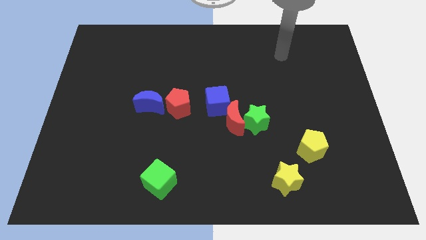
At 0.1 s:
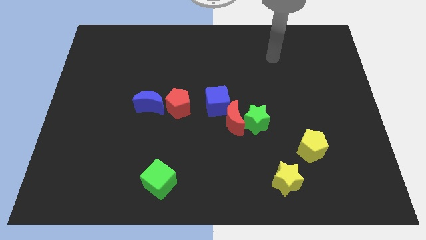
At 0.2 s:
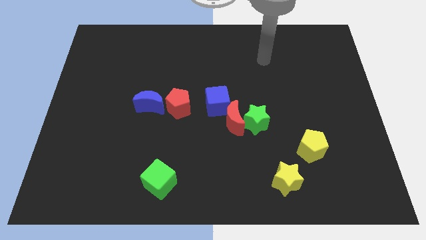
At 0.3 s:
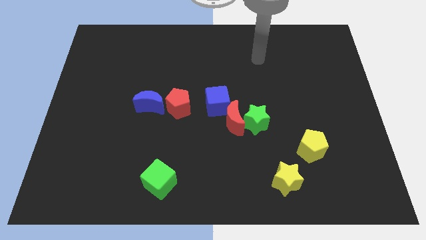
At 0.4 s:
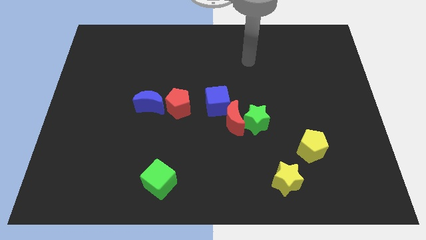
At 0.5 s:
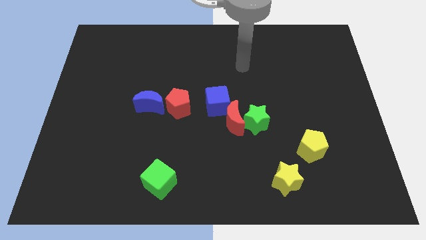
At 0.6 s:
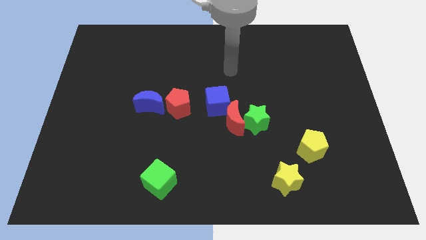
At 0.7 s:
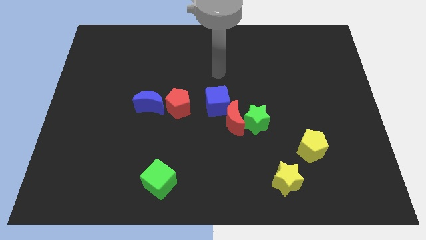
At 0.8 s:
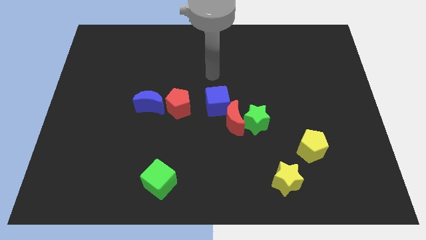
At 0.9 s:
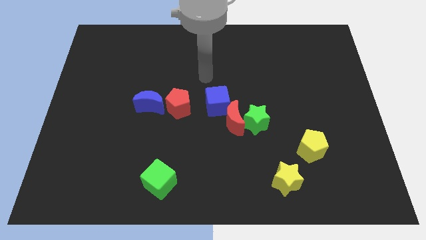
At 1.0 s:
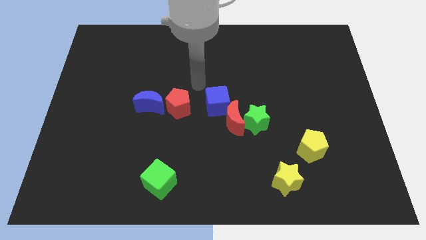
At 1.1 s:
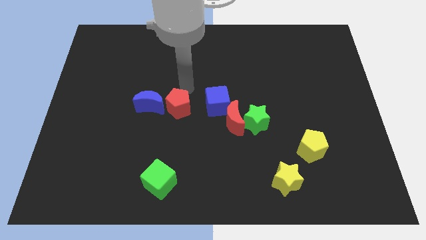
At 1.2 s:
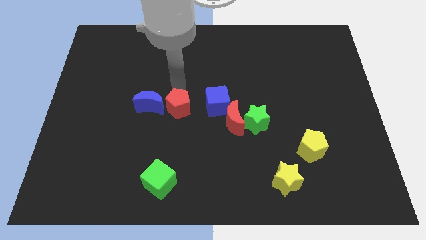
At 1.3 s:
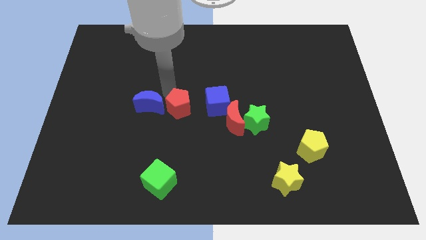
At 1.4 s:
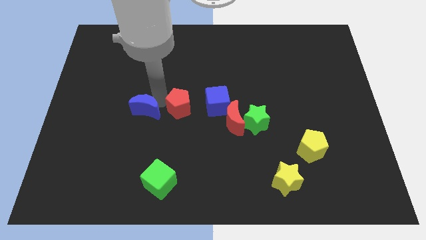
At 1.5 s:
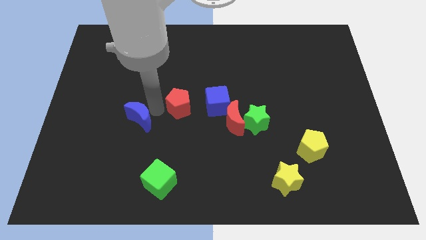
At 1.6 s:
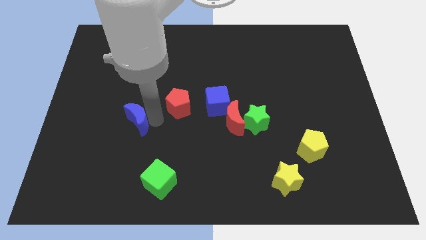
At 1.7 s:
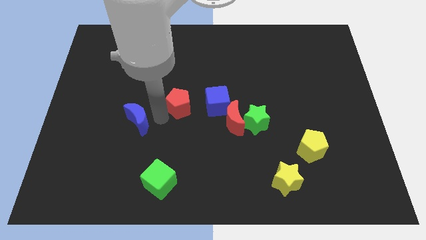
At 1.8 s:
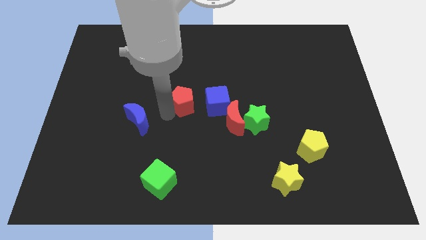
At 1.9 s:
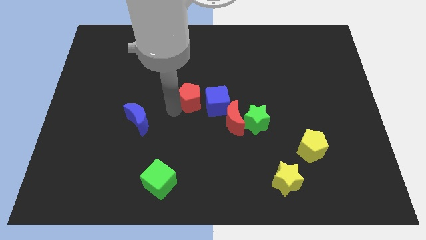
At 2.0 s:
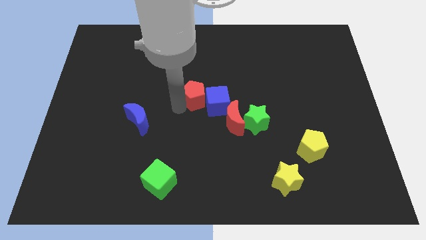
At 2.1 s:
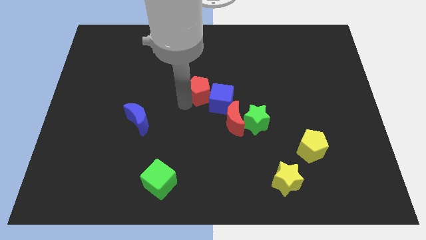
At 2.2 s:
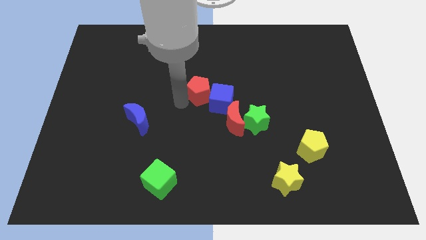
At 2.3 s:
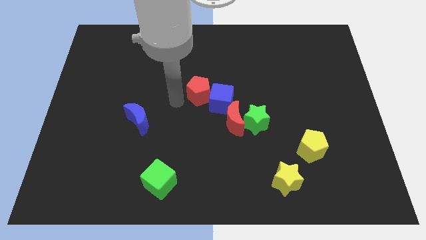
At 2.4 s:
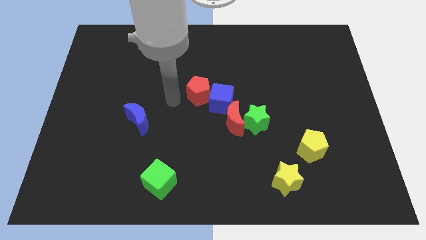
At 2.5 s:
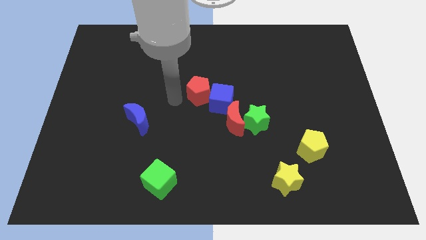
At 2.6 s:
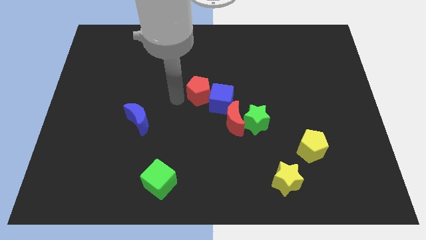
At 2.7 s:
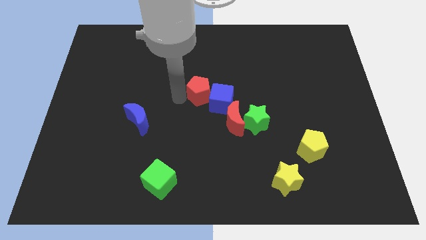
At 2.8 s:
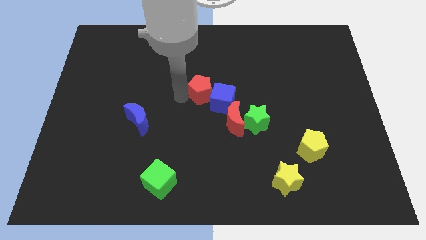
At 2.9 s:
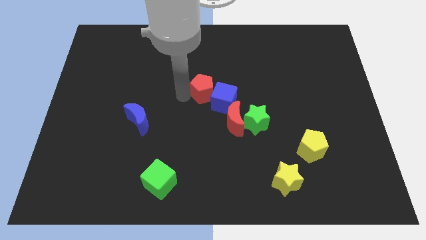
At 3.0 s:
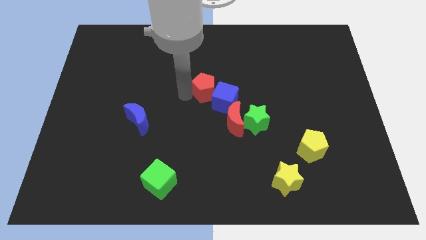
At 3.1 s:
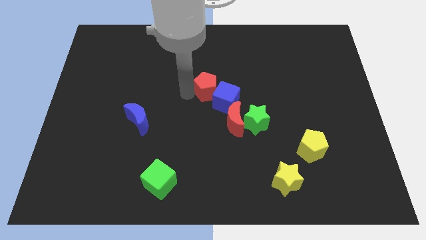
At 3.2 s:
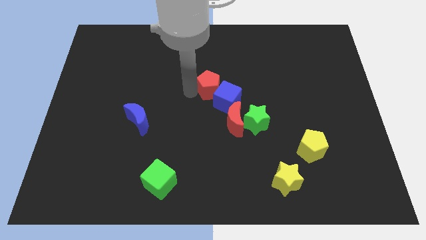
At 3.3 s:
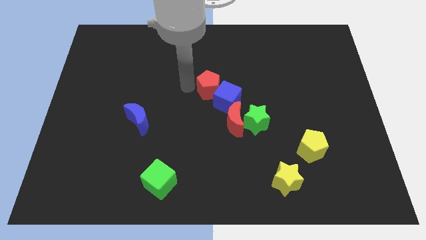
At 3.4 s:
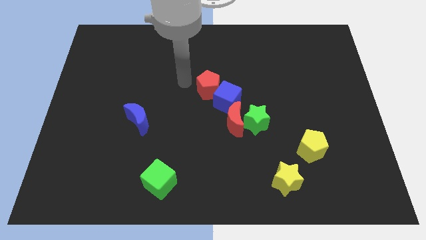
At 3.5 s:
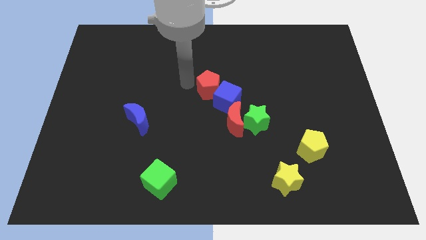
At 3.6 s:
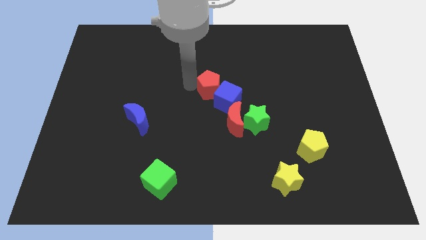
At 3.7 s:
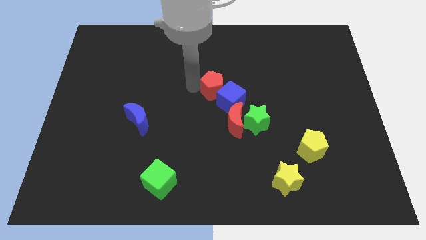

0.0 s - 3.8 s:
push the red pentagon right slightly

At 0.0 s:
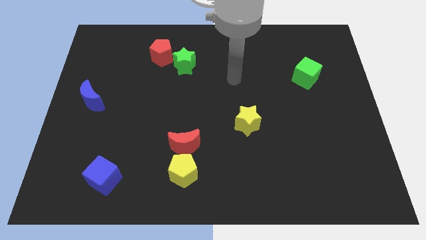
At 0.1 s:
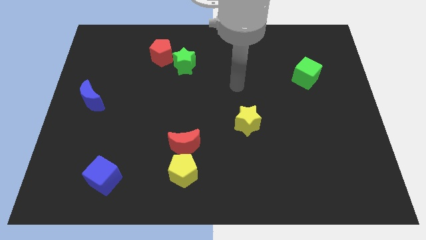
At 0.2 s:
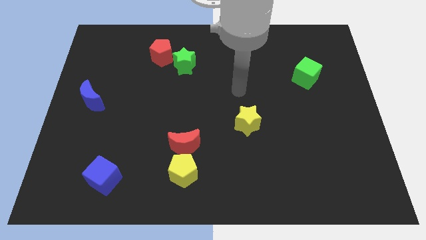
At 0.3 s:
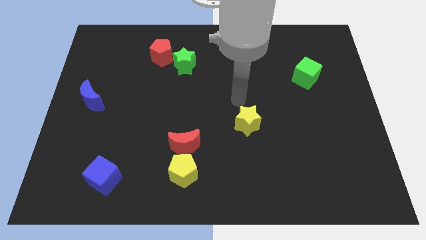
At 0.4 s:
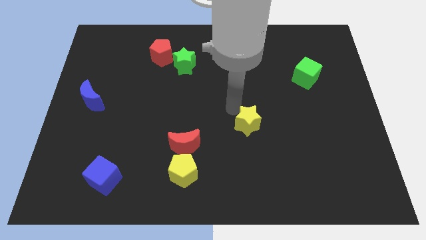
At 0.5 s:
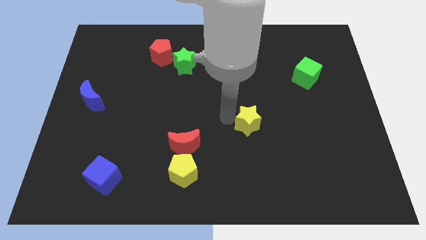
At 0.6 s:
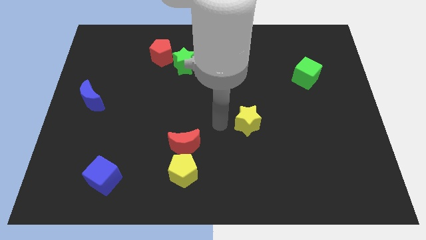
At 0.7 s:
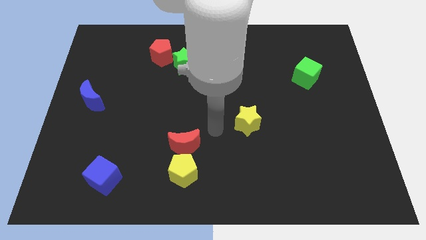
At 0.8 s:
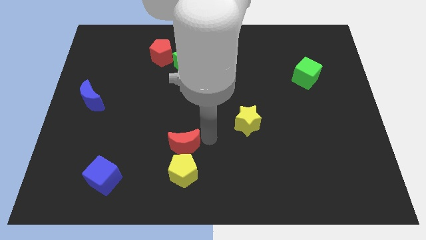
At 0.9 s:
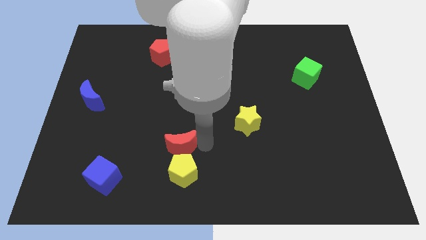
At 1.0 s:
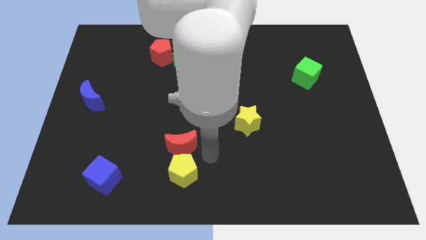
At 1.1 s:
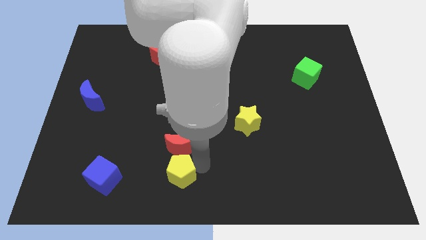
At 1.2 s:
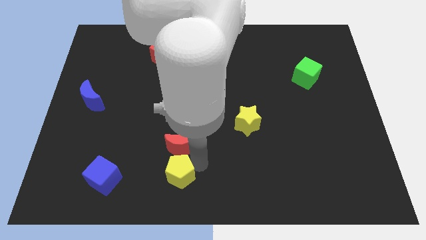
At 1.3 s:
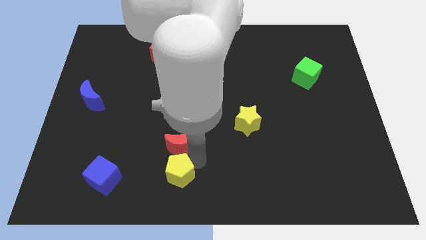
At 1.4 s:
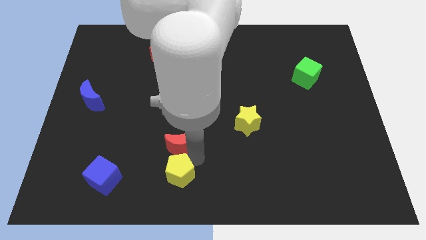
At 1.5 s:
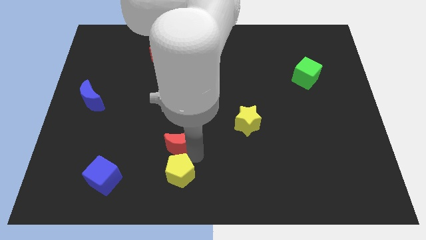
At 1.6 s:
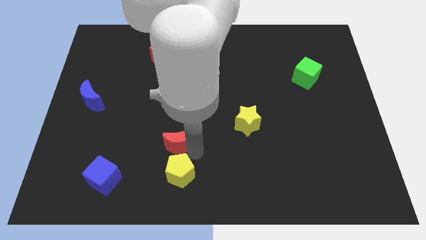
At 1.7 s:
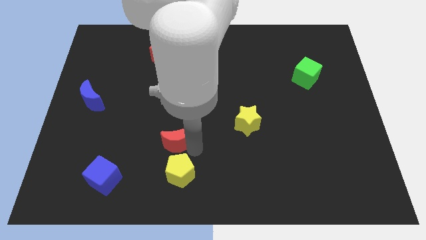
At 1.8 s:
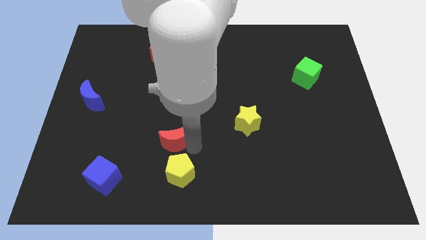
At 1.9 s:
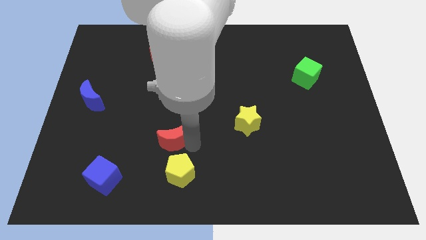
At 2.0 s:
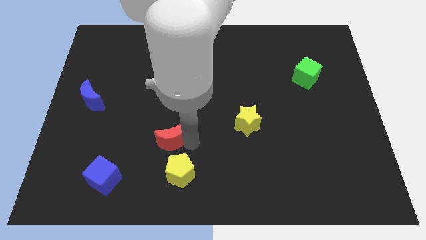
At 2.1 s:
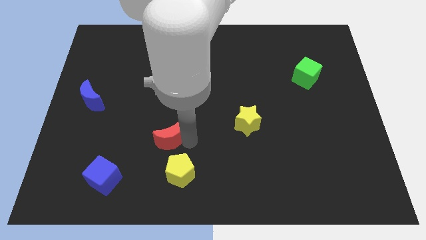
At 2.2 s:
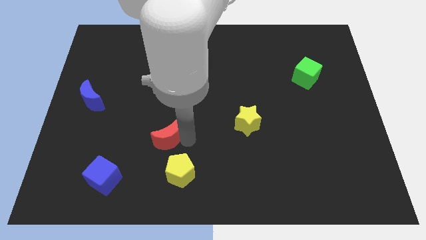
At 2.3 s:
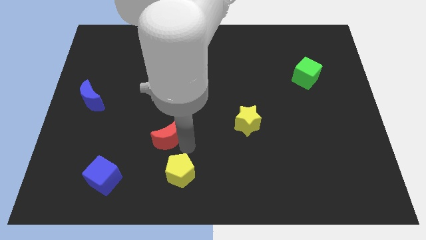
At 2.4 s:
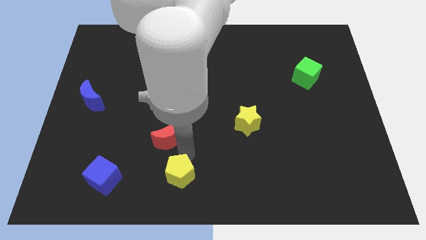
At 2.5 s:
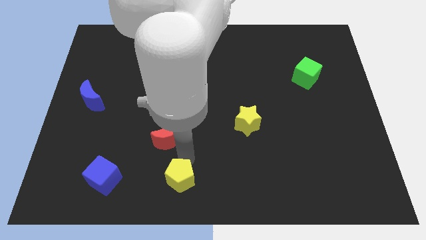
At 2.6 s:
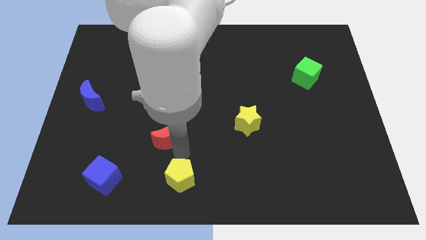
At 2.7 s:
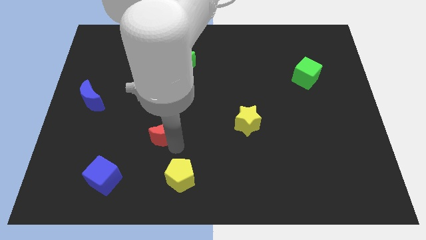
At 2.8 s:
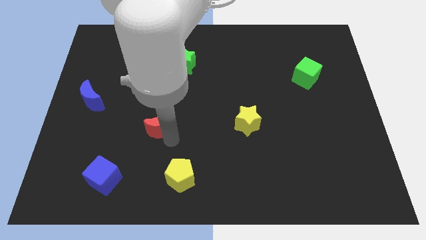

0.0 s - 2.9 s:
move the red moon upwards and left diagonally slightly

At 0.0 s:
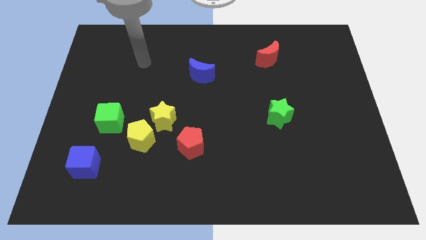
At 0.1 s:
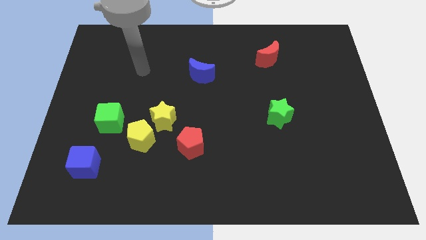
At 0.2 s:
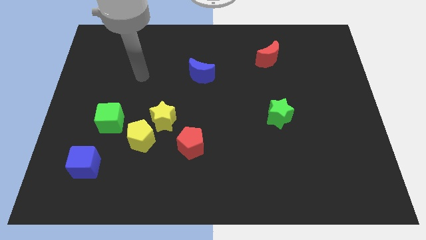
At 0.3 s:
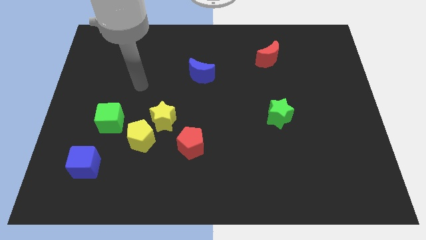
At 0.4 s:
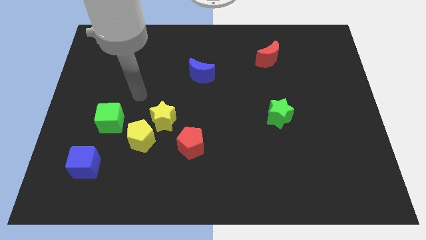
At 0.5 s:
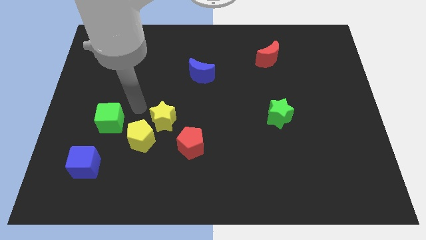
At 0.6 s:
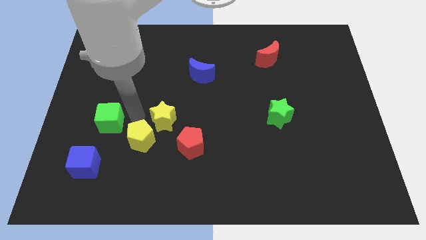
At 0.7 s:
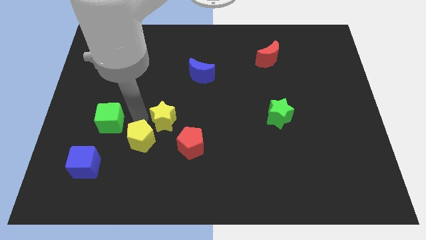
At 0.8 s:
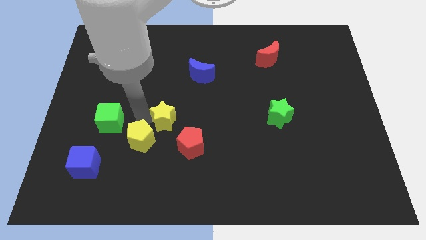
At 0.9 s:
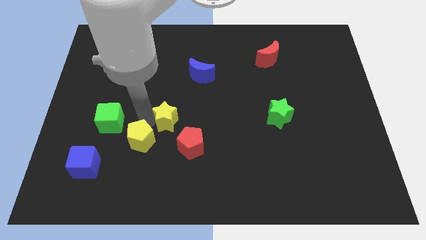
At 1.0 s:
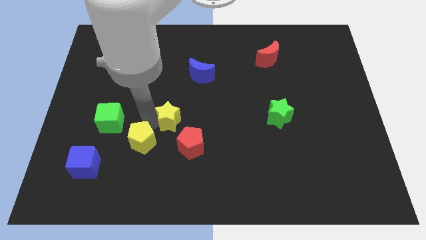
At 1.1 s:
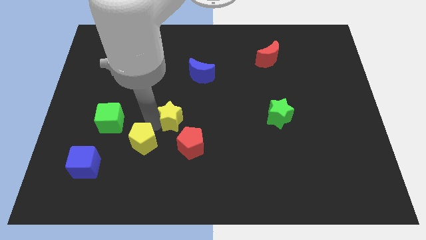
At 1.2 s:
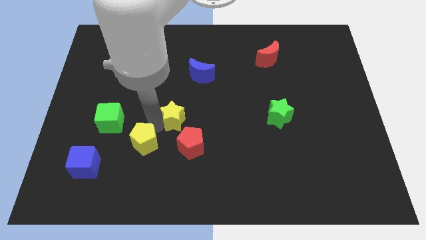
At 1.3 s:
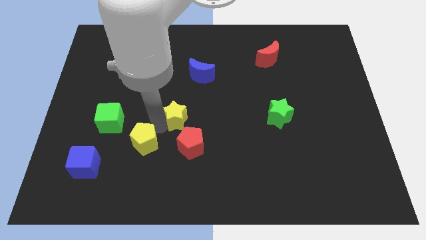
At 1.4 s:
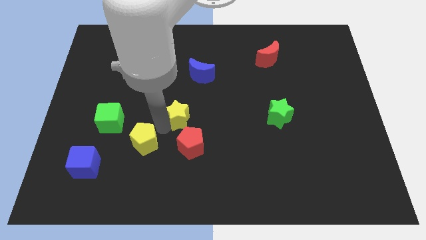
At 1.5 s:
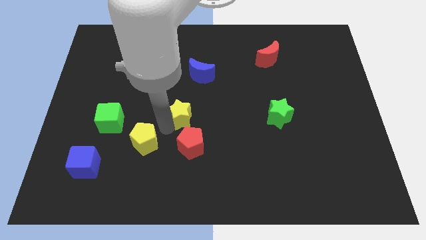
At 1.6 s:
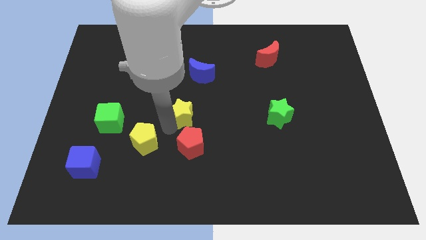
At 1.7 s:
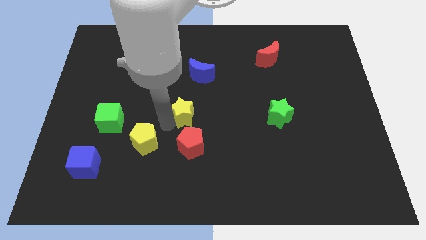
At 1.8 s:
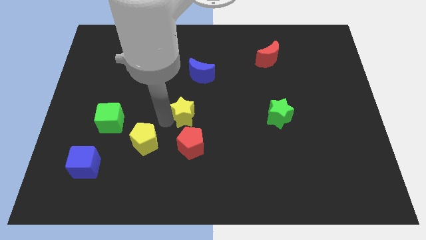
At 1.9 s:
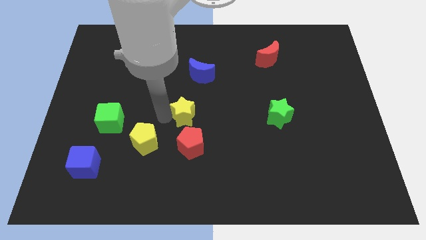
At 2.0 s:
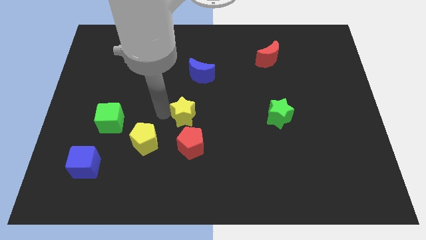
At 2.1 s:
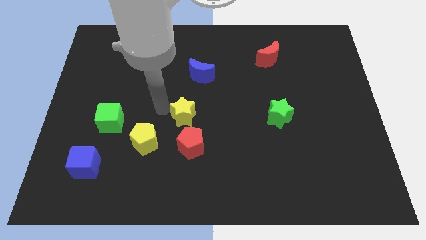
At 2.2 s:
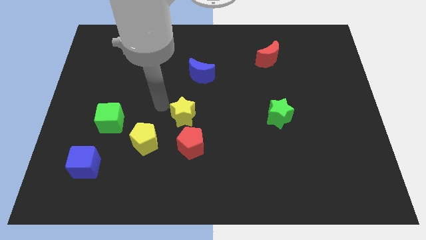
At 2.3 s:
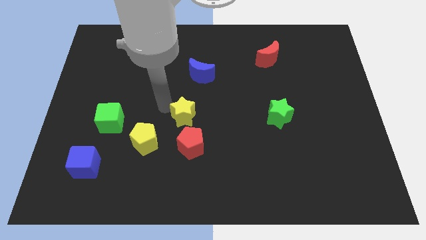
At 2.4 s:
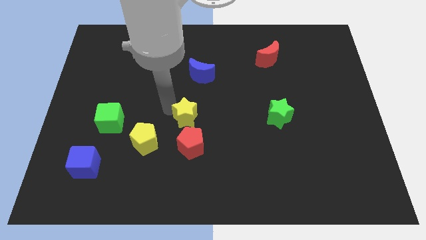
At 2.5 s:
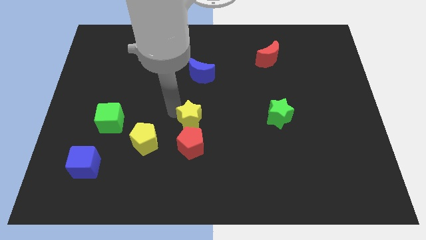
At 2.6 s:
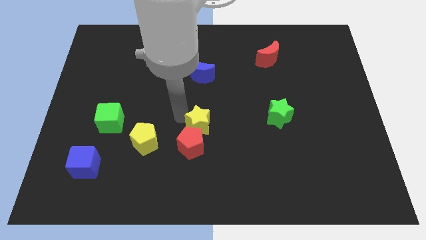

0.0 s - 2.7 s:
push the yellow star to the right a little bit
